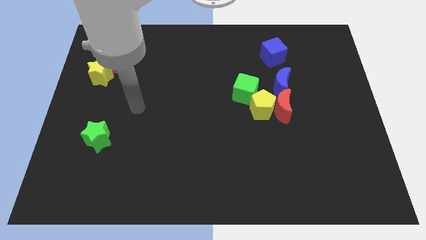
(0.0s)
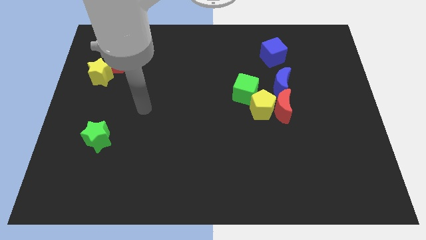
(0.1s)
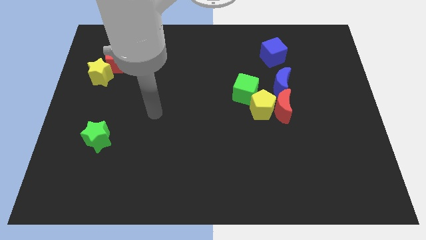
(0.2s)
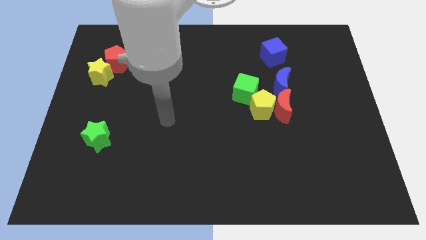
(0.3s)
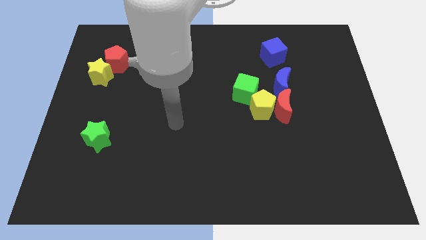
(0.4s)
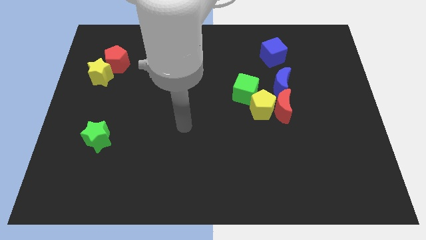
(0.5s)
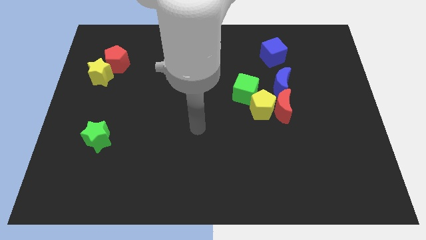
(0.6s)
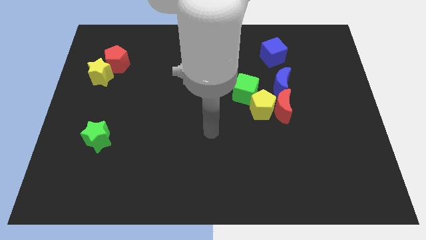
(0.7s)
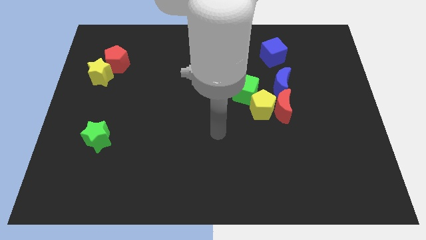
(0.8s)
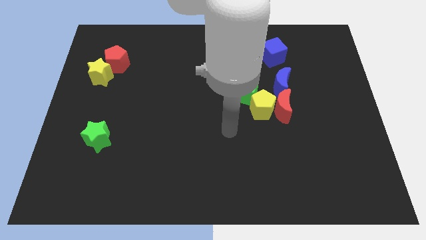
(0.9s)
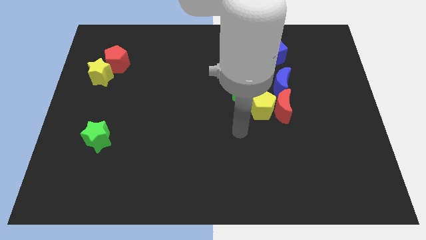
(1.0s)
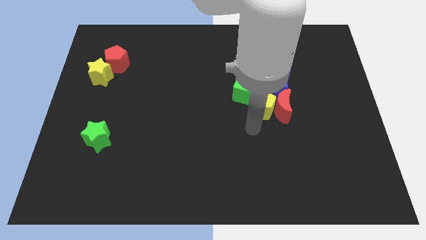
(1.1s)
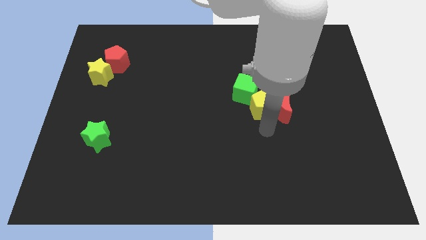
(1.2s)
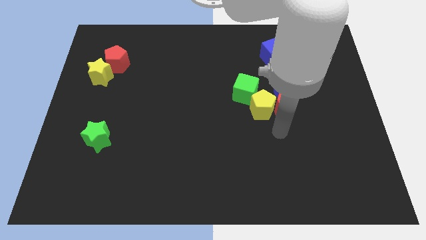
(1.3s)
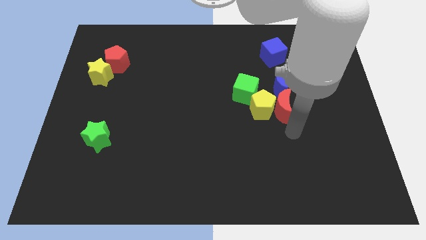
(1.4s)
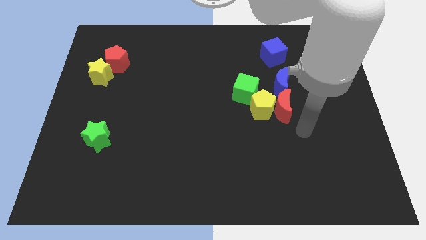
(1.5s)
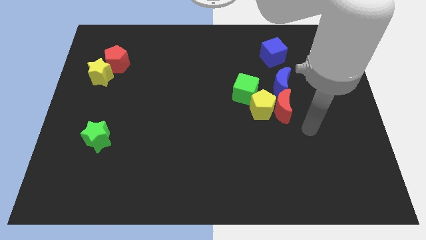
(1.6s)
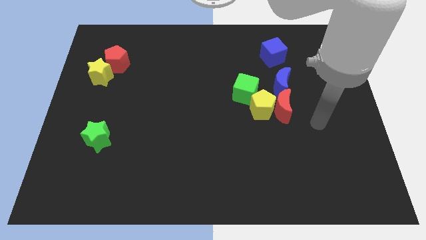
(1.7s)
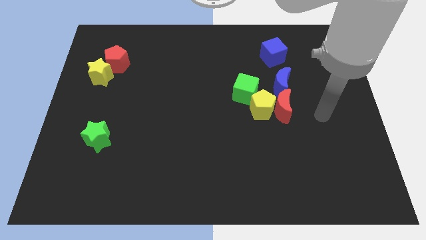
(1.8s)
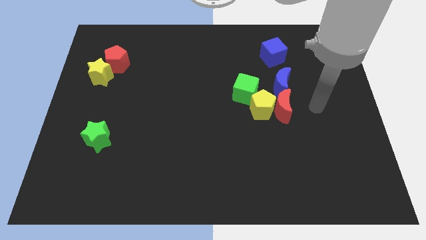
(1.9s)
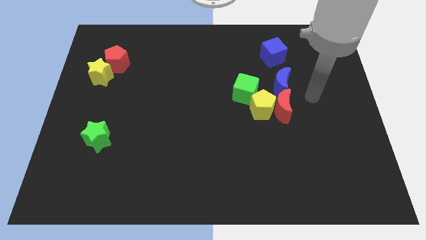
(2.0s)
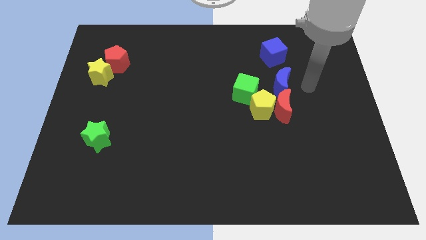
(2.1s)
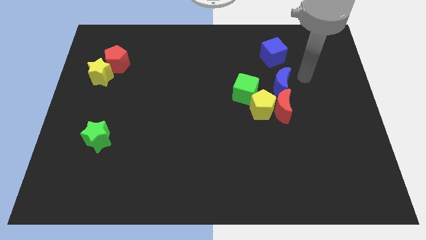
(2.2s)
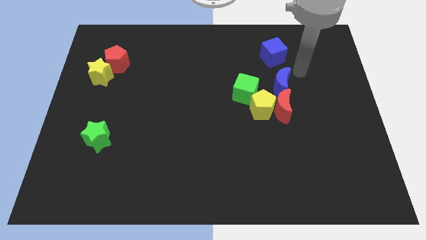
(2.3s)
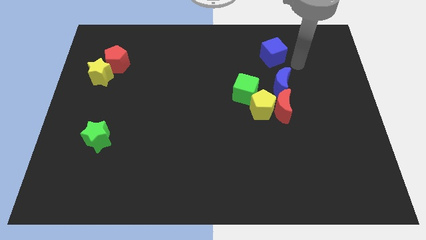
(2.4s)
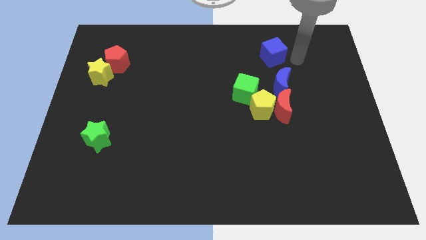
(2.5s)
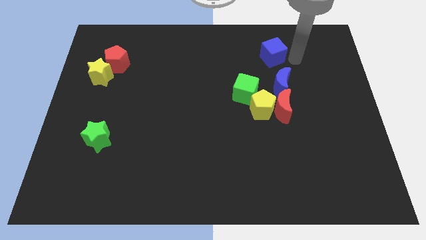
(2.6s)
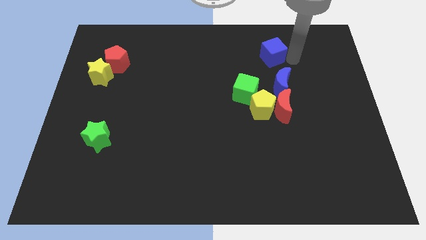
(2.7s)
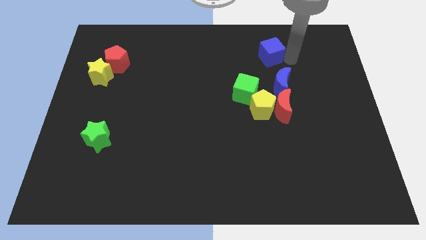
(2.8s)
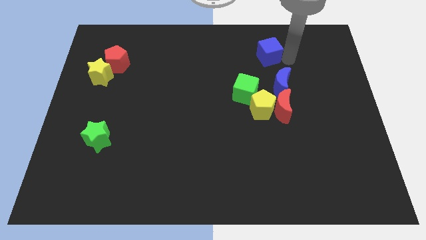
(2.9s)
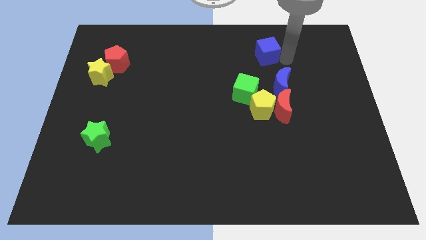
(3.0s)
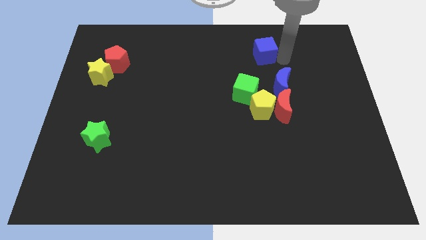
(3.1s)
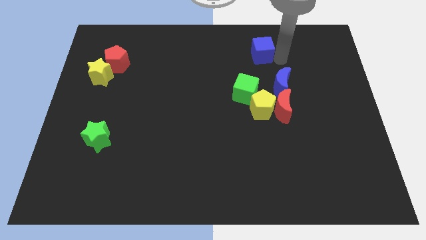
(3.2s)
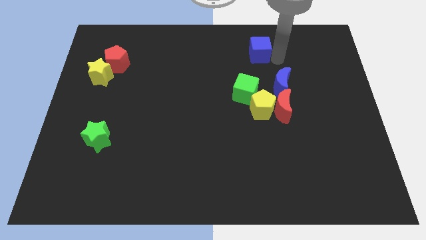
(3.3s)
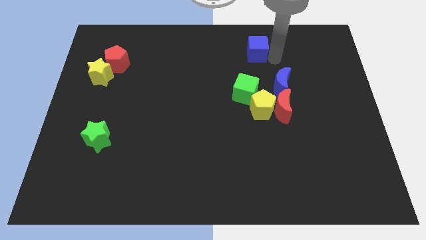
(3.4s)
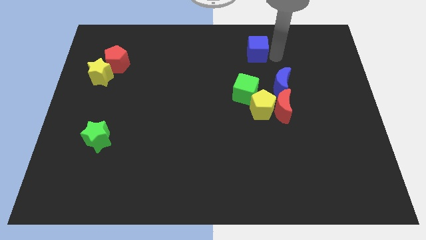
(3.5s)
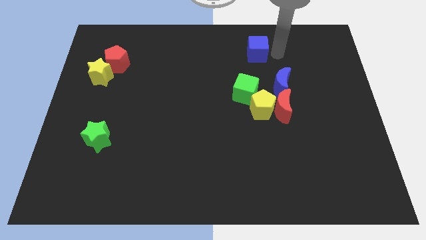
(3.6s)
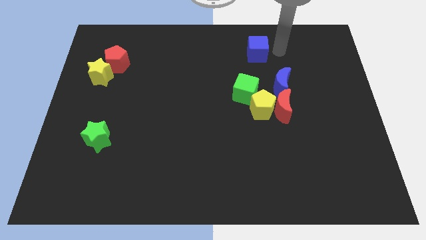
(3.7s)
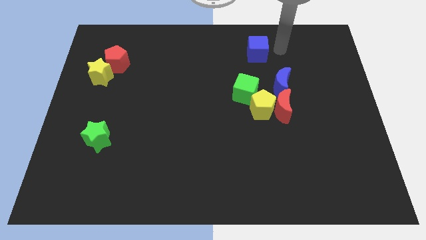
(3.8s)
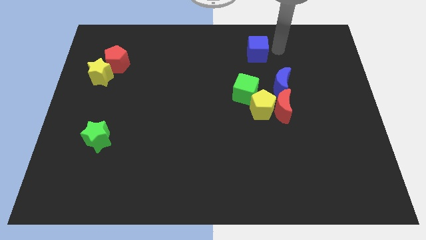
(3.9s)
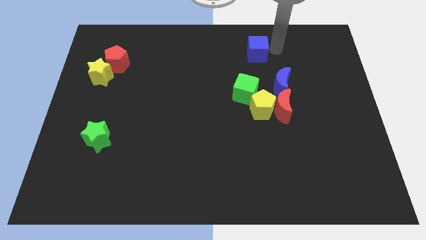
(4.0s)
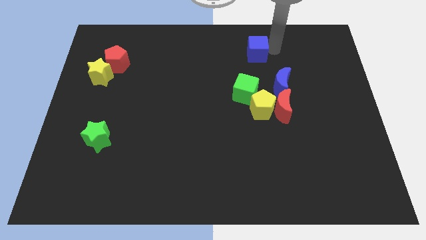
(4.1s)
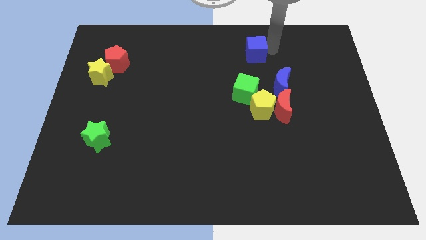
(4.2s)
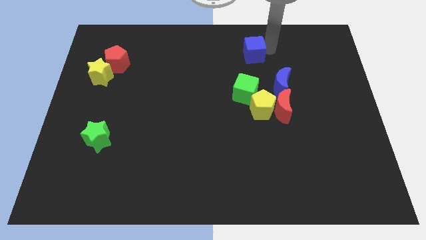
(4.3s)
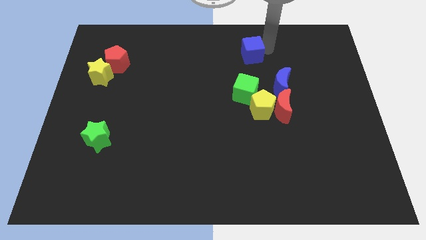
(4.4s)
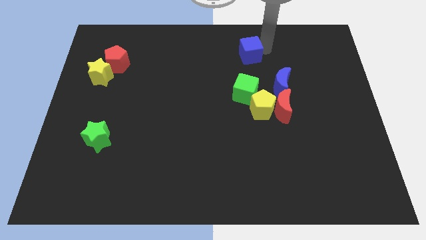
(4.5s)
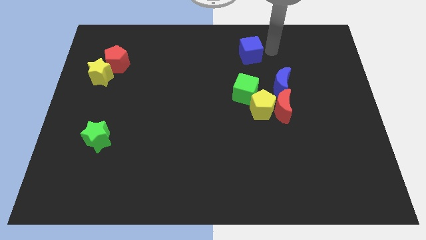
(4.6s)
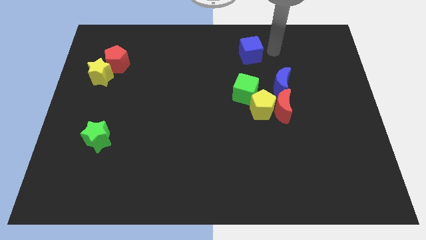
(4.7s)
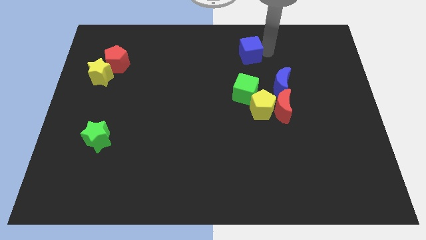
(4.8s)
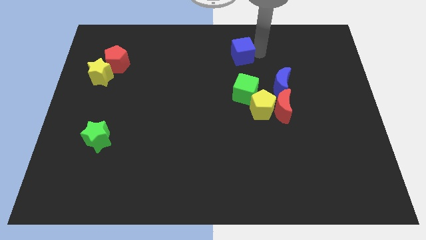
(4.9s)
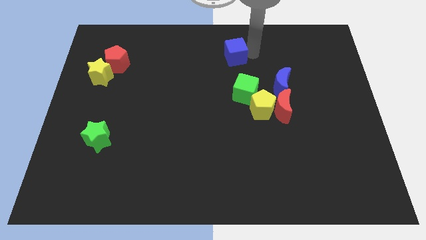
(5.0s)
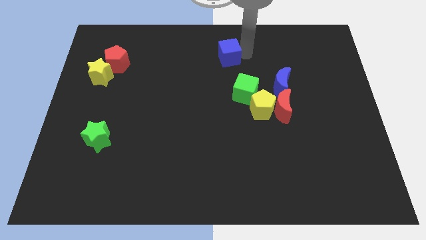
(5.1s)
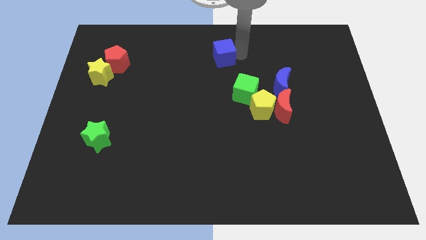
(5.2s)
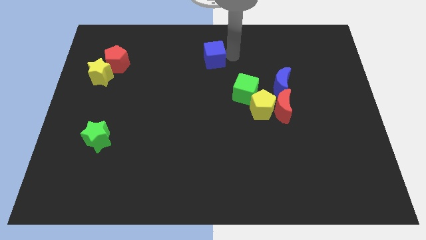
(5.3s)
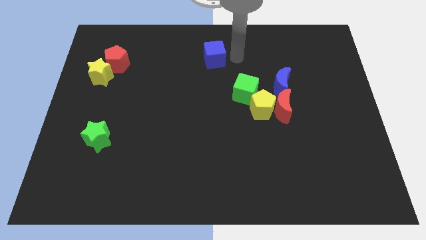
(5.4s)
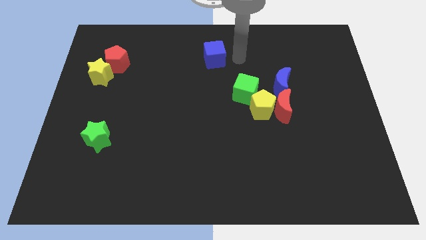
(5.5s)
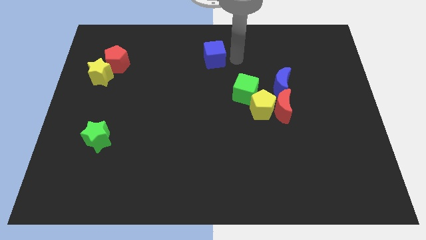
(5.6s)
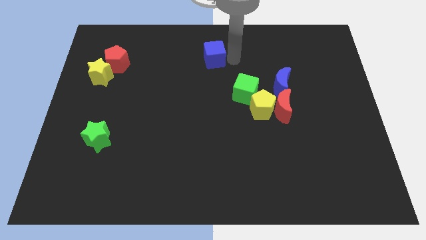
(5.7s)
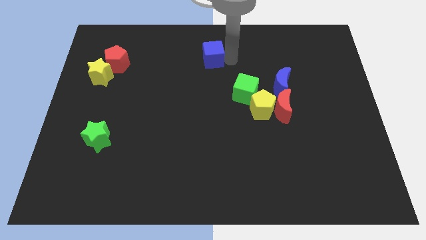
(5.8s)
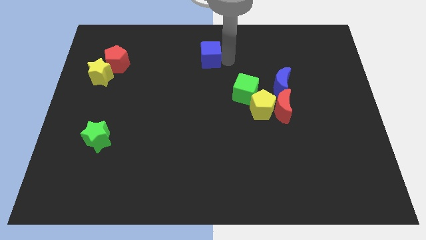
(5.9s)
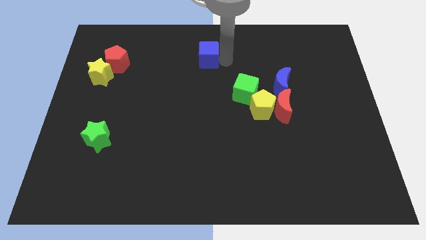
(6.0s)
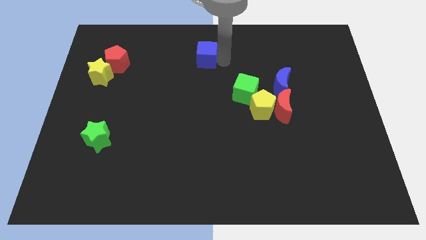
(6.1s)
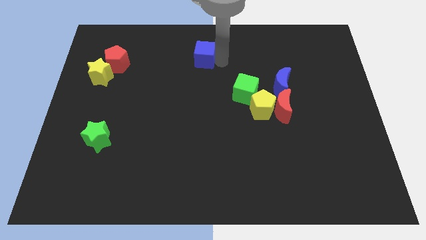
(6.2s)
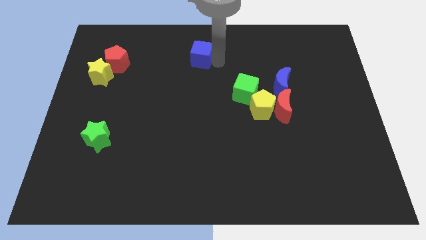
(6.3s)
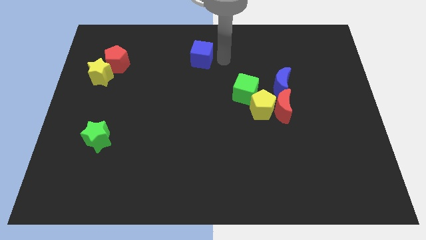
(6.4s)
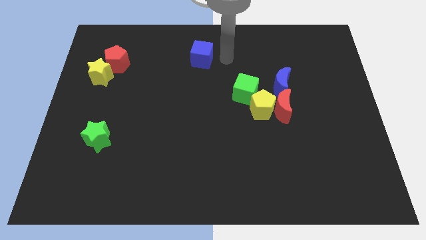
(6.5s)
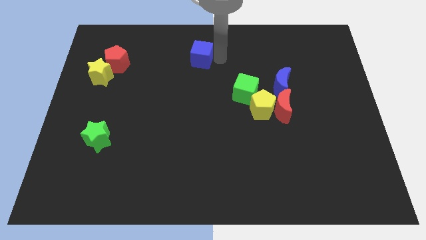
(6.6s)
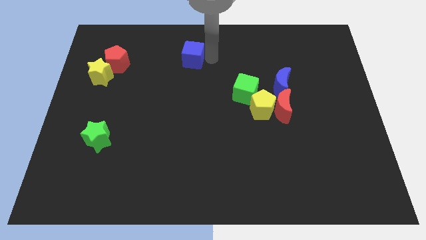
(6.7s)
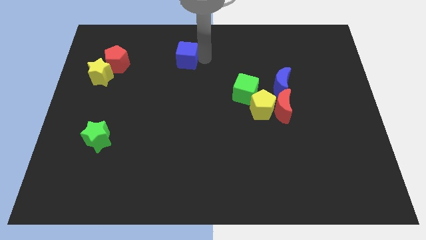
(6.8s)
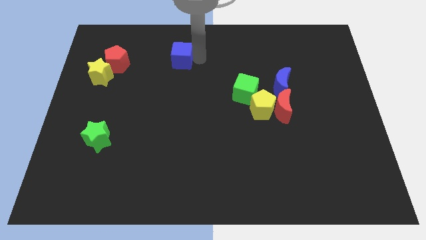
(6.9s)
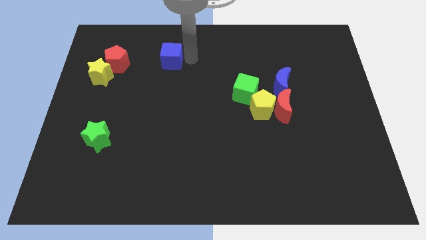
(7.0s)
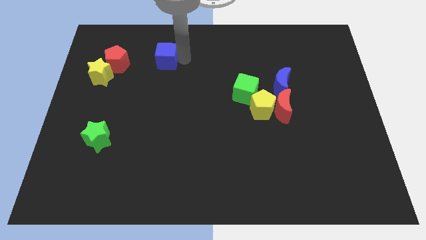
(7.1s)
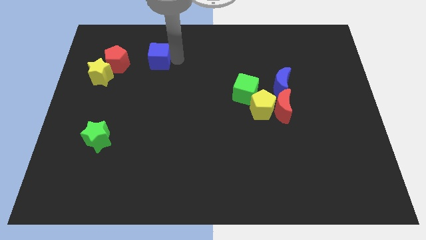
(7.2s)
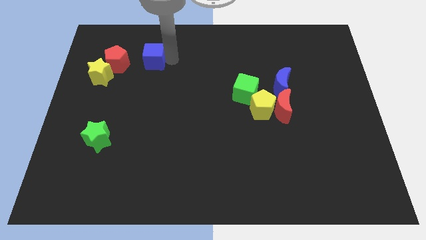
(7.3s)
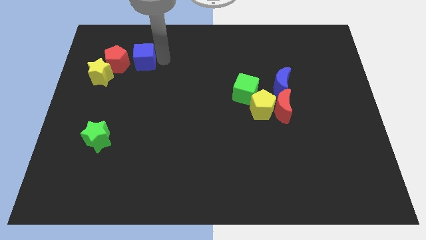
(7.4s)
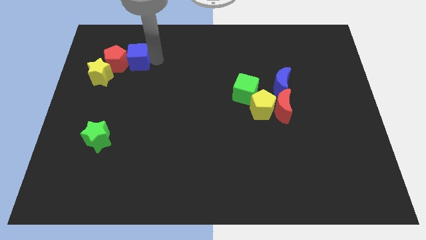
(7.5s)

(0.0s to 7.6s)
push the blue cube next to the red pentagon
